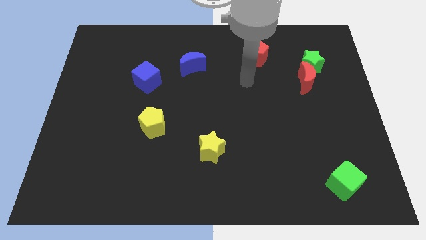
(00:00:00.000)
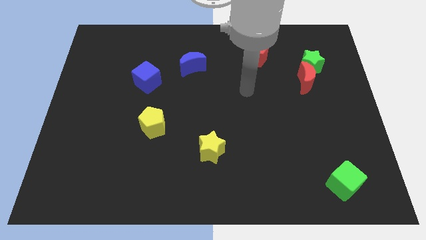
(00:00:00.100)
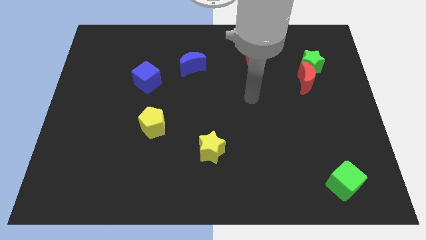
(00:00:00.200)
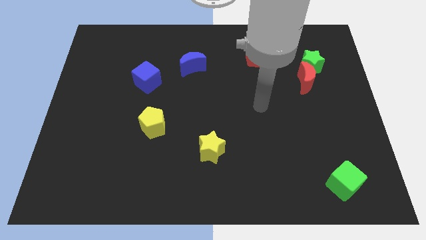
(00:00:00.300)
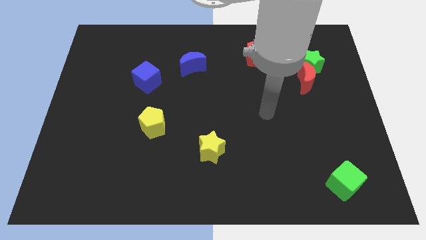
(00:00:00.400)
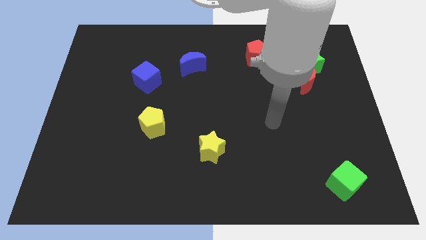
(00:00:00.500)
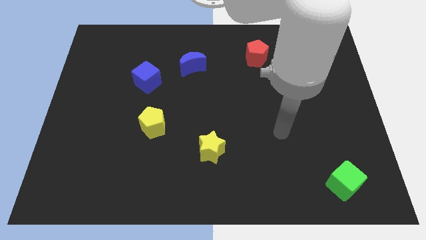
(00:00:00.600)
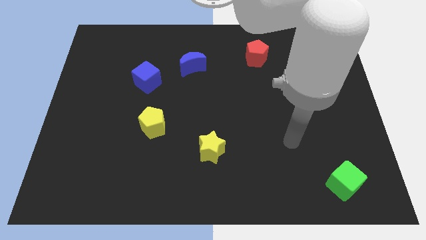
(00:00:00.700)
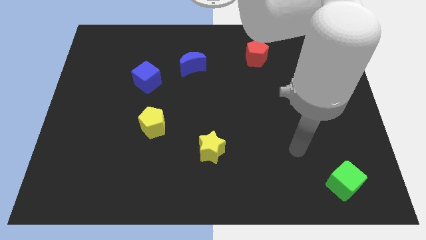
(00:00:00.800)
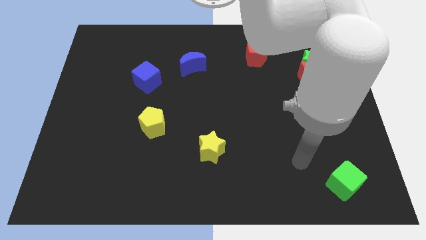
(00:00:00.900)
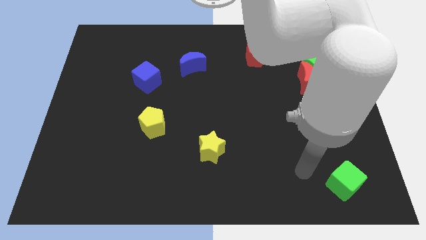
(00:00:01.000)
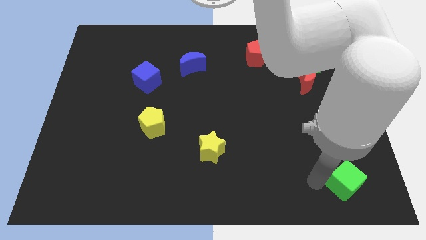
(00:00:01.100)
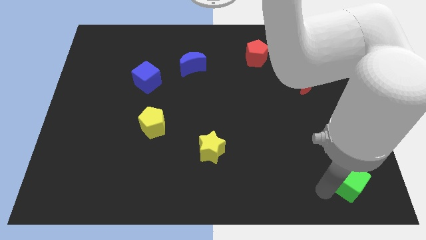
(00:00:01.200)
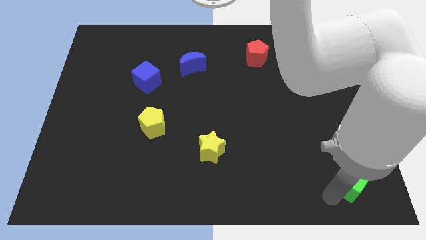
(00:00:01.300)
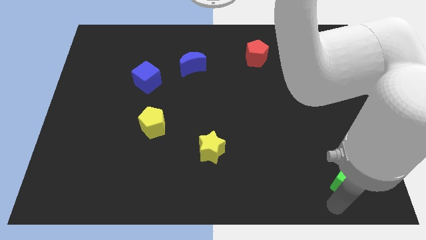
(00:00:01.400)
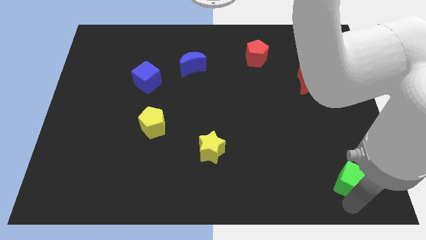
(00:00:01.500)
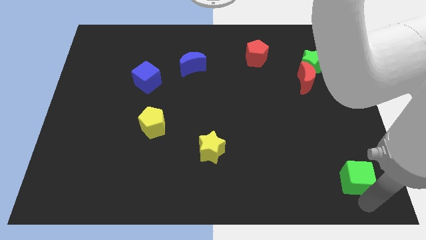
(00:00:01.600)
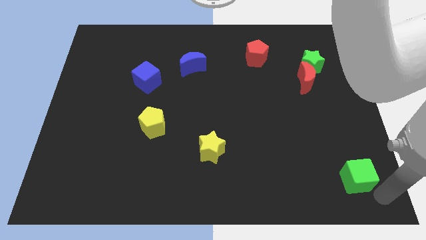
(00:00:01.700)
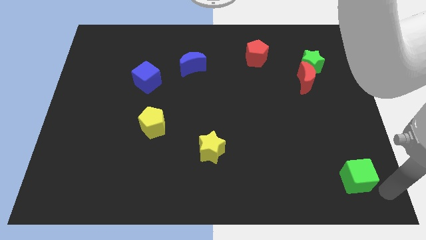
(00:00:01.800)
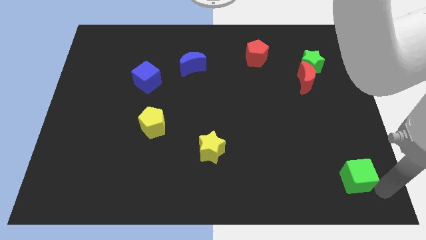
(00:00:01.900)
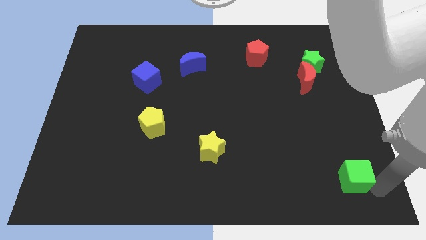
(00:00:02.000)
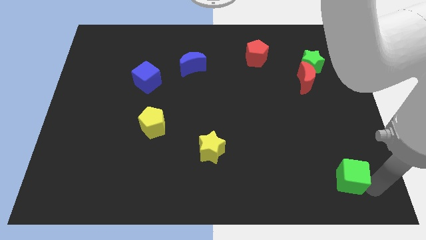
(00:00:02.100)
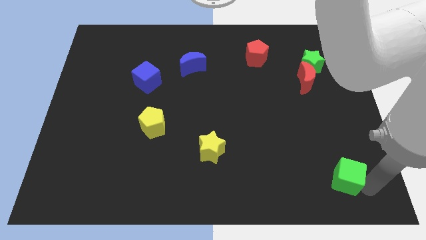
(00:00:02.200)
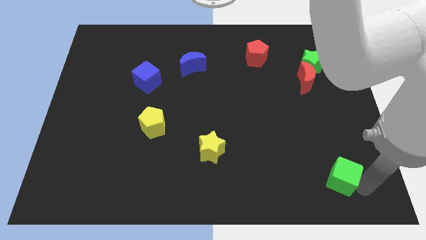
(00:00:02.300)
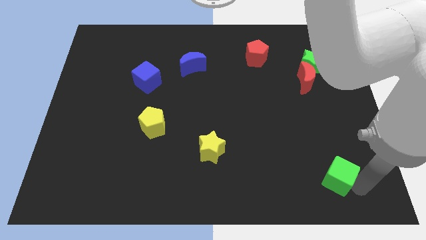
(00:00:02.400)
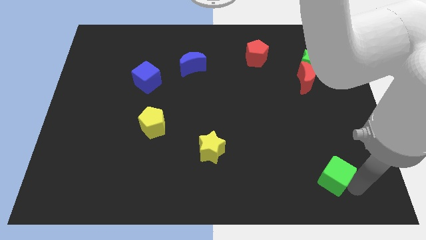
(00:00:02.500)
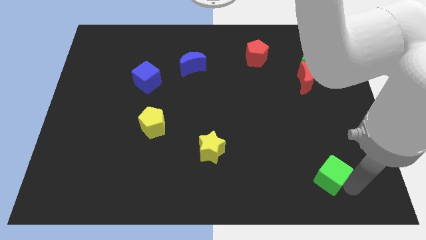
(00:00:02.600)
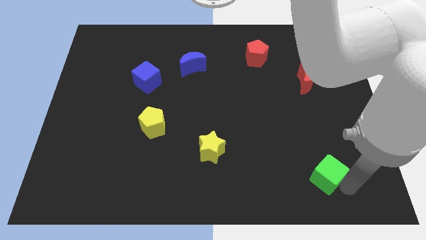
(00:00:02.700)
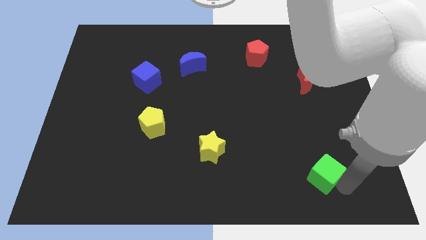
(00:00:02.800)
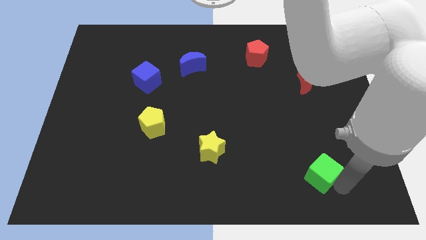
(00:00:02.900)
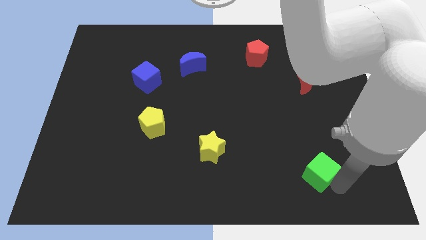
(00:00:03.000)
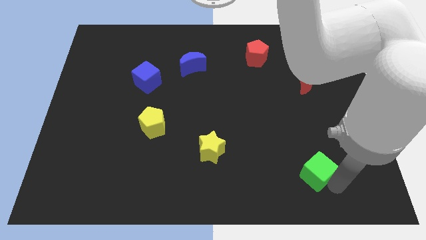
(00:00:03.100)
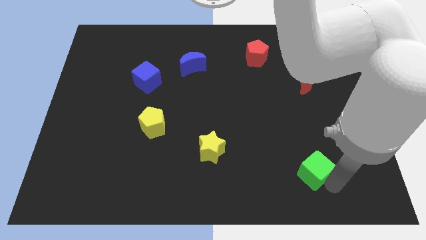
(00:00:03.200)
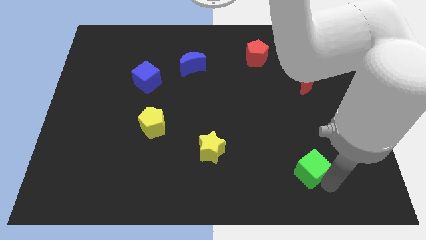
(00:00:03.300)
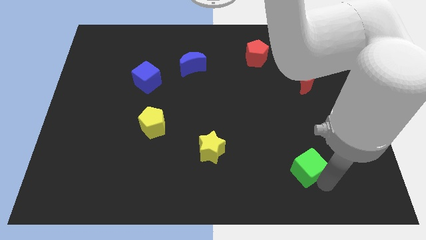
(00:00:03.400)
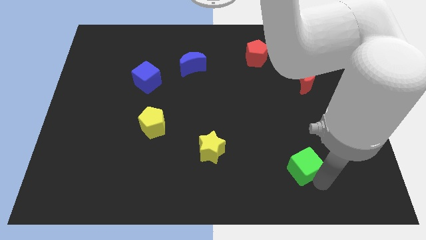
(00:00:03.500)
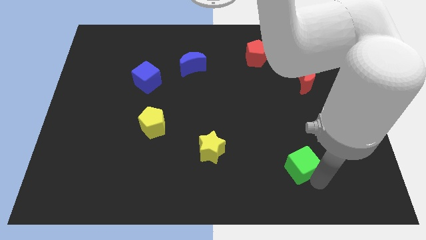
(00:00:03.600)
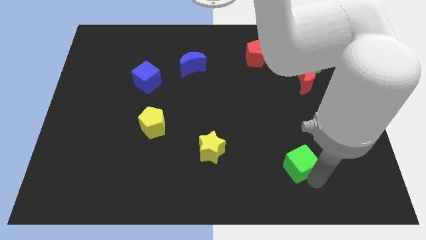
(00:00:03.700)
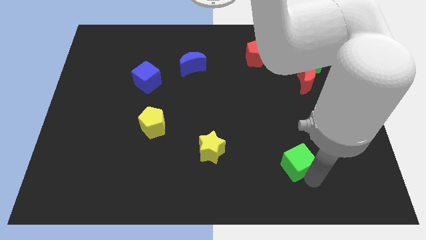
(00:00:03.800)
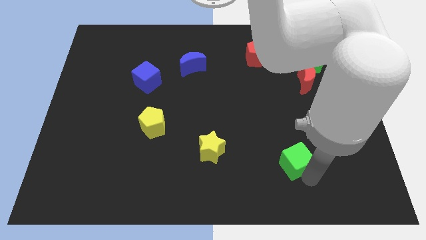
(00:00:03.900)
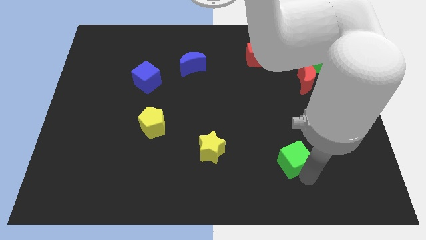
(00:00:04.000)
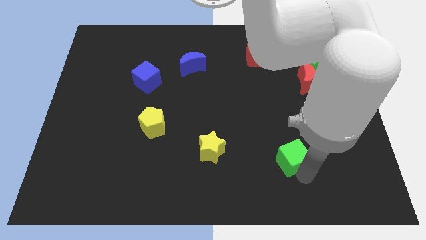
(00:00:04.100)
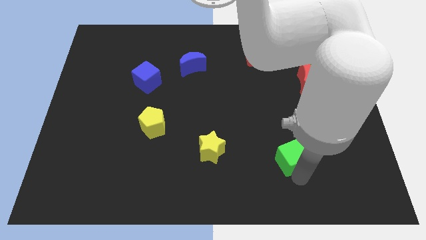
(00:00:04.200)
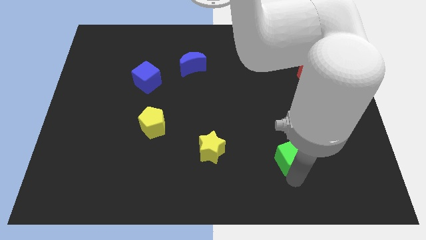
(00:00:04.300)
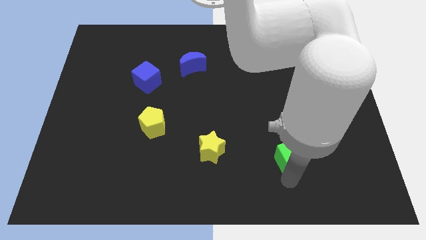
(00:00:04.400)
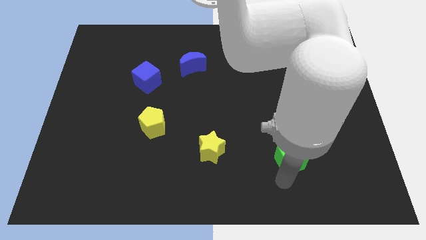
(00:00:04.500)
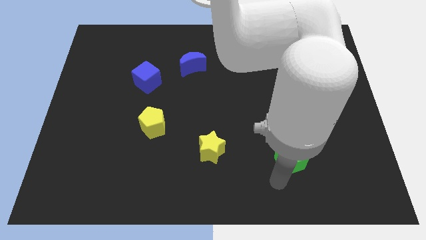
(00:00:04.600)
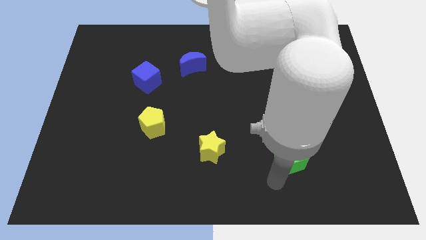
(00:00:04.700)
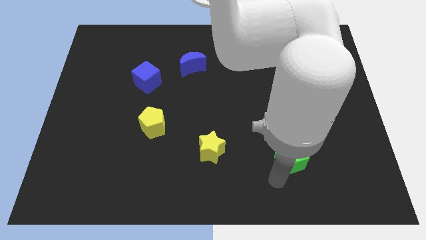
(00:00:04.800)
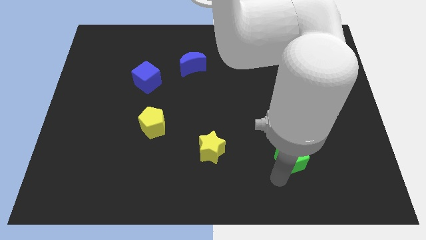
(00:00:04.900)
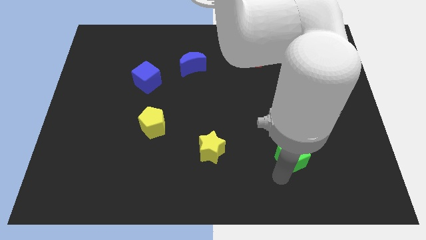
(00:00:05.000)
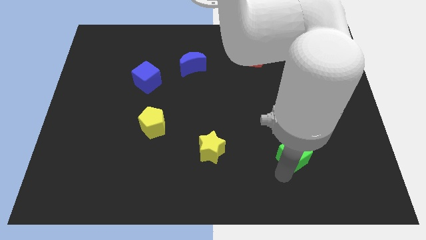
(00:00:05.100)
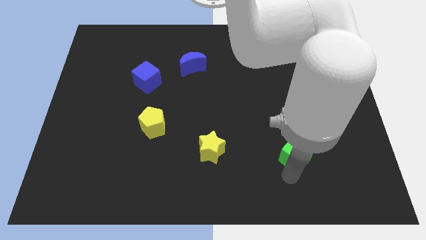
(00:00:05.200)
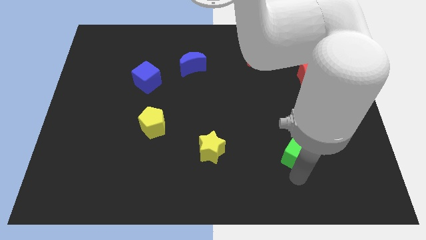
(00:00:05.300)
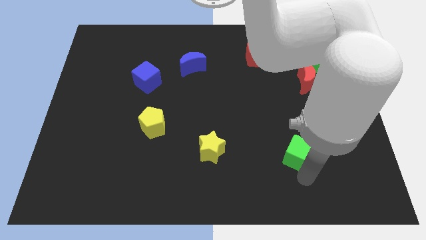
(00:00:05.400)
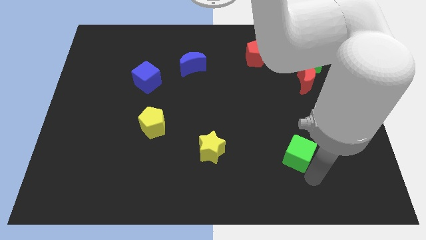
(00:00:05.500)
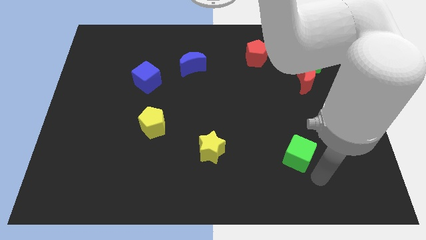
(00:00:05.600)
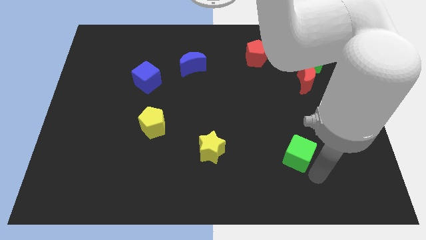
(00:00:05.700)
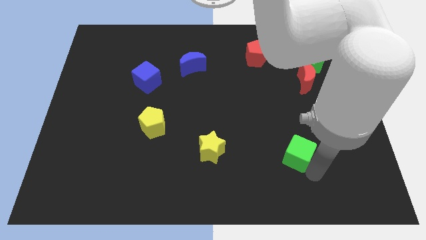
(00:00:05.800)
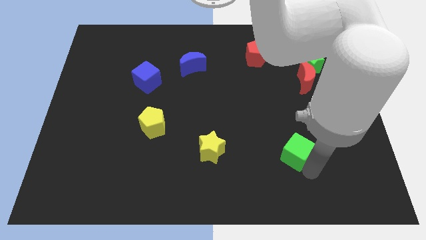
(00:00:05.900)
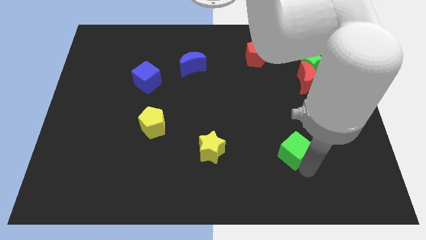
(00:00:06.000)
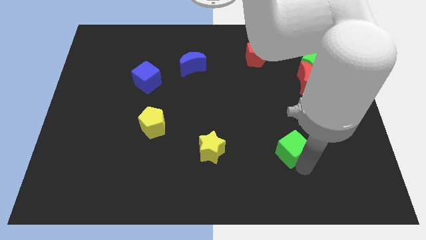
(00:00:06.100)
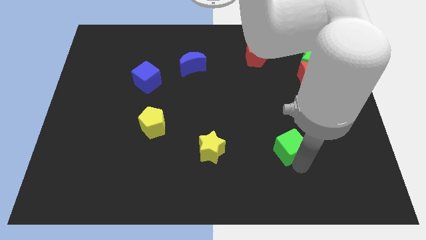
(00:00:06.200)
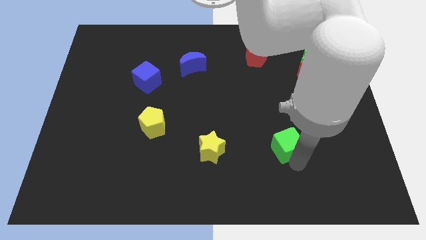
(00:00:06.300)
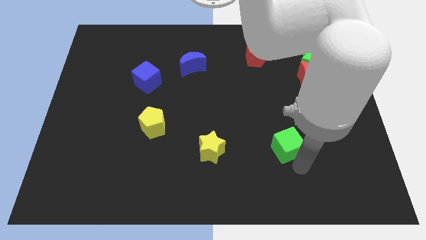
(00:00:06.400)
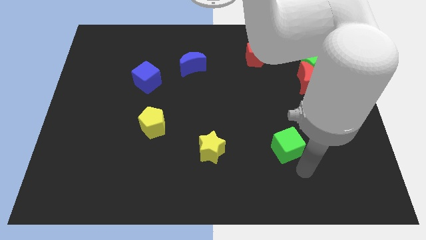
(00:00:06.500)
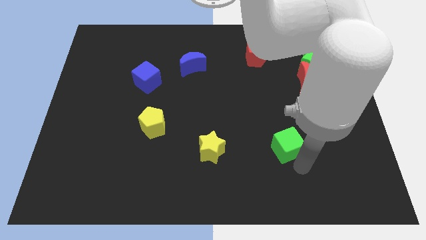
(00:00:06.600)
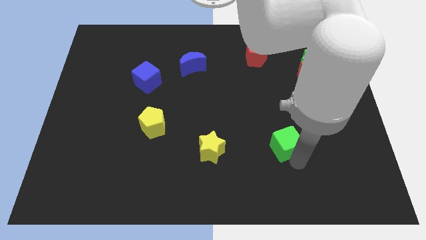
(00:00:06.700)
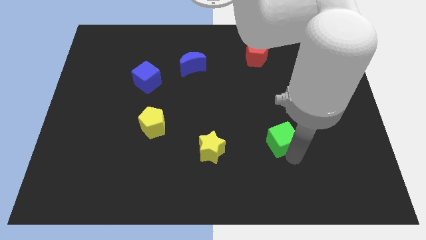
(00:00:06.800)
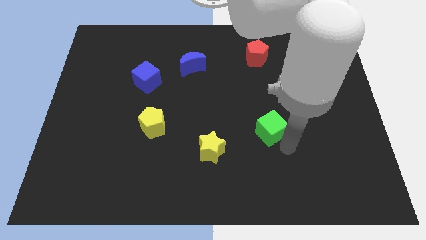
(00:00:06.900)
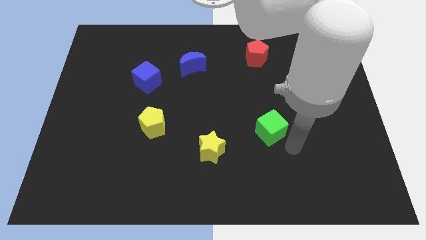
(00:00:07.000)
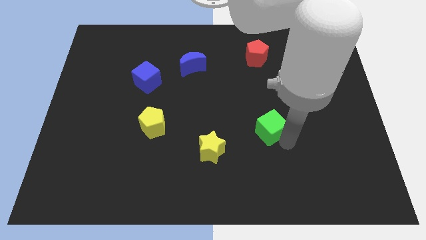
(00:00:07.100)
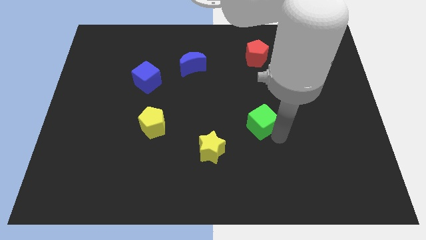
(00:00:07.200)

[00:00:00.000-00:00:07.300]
slide the green cube diagonally upwards and left

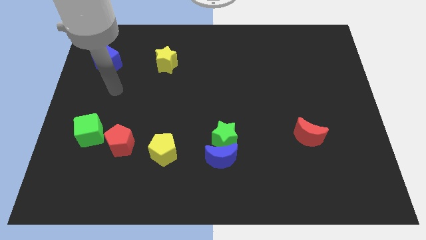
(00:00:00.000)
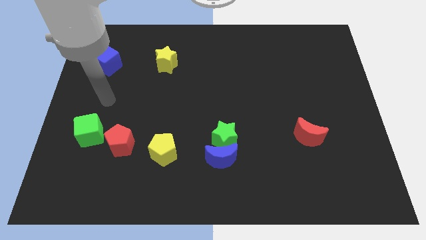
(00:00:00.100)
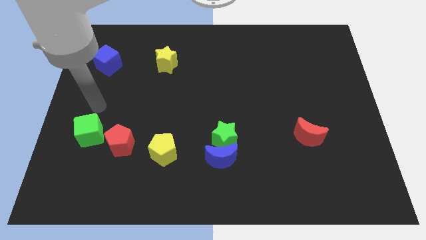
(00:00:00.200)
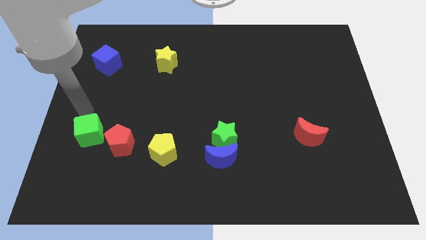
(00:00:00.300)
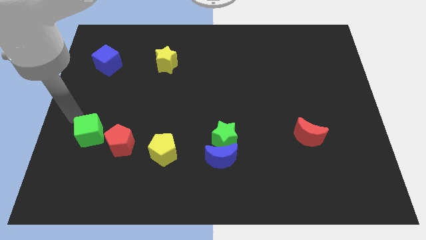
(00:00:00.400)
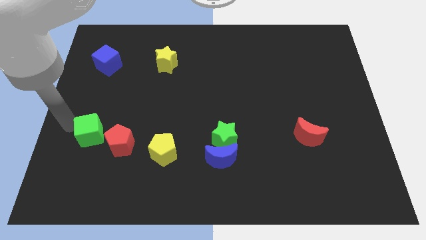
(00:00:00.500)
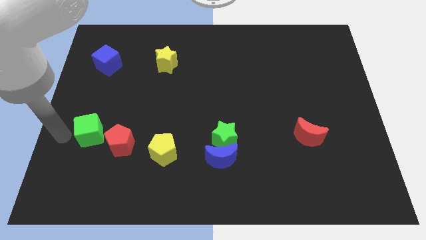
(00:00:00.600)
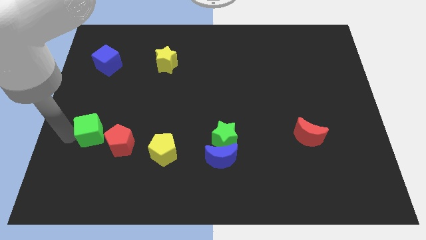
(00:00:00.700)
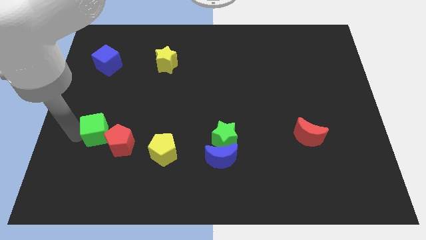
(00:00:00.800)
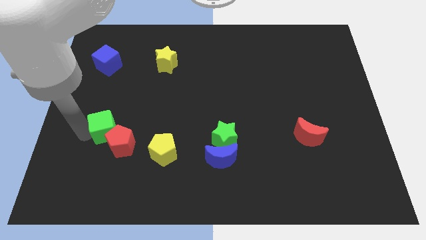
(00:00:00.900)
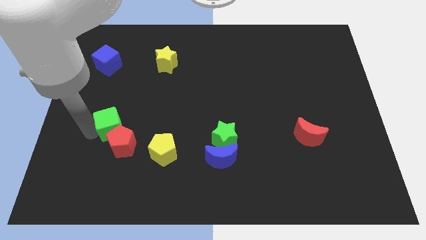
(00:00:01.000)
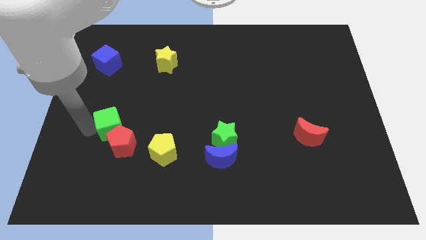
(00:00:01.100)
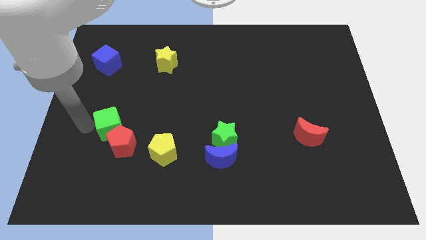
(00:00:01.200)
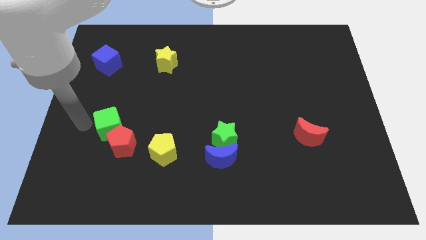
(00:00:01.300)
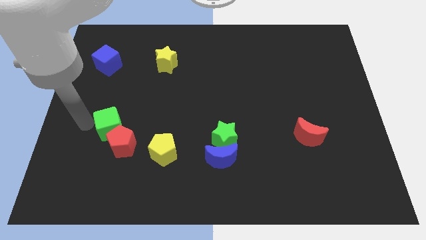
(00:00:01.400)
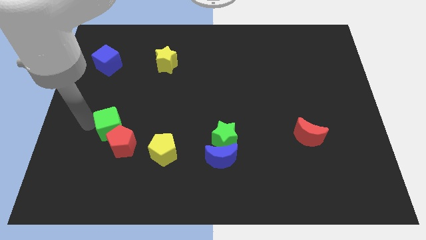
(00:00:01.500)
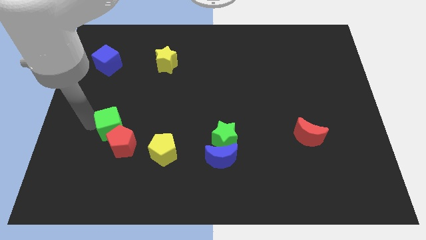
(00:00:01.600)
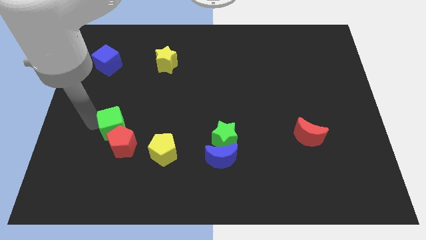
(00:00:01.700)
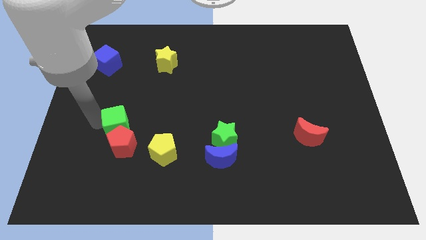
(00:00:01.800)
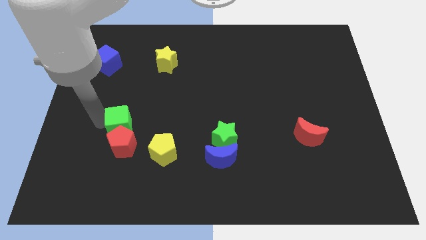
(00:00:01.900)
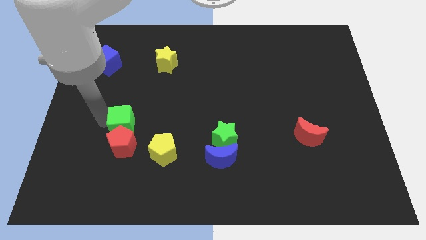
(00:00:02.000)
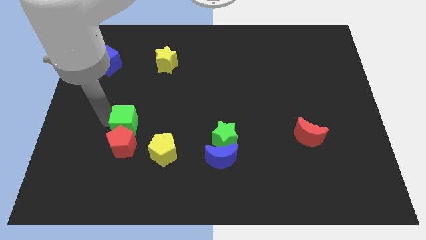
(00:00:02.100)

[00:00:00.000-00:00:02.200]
slide the green cube slightly to the right
